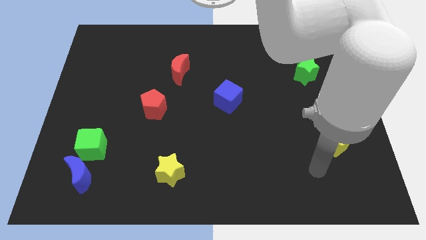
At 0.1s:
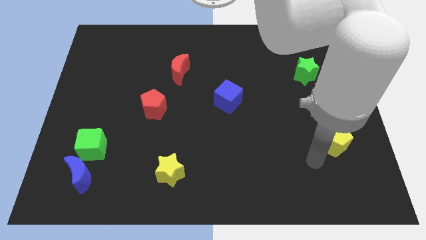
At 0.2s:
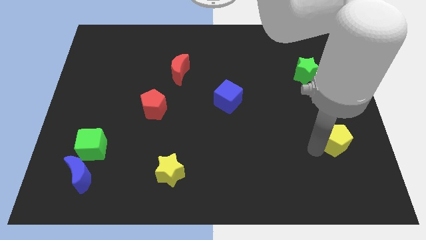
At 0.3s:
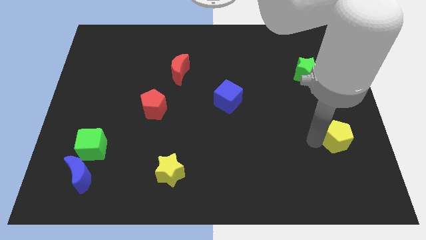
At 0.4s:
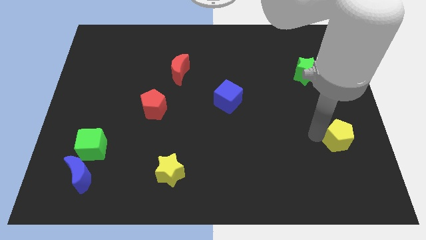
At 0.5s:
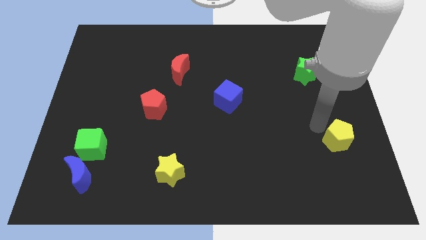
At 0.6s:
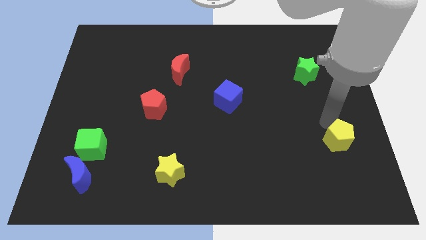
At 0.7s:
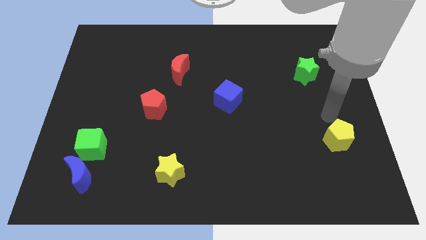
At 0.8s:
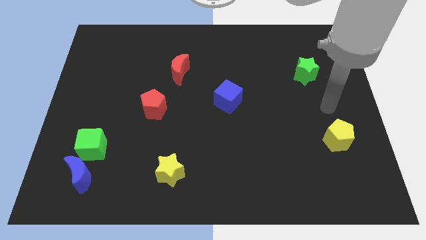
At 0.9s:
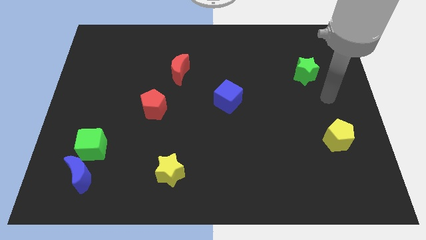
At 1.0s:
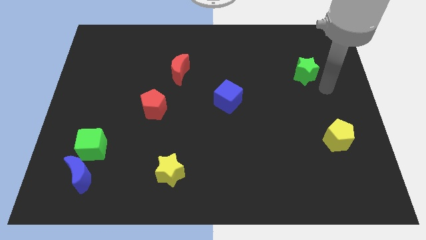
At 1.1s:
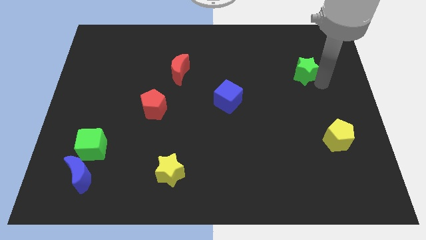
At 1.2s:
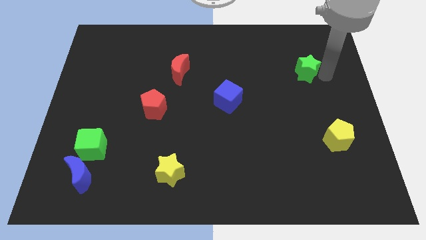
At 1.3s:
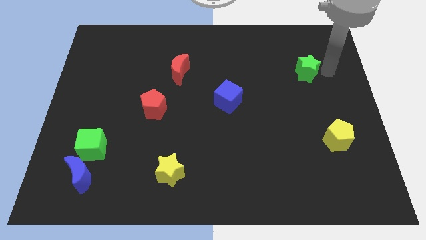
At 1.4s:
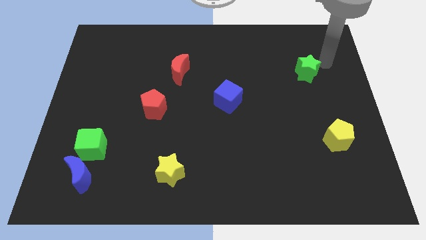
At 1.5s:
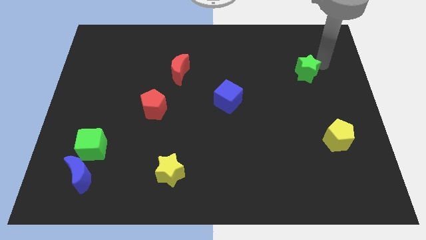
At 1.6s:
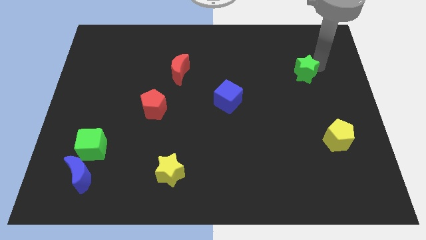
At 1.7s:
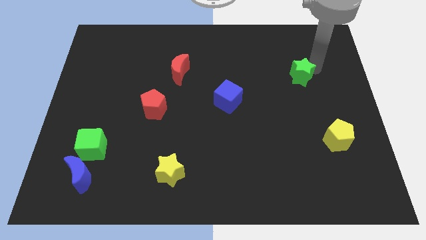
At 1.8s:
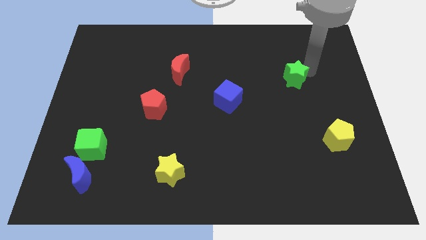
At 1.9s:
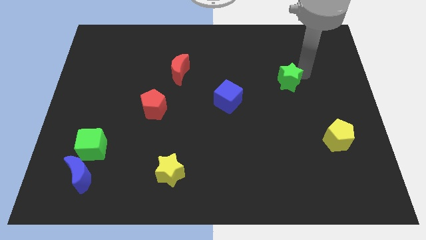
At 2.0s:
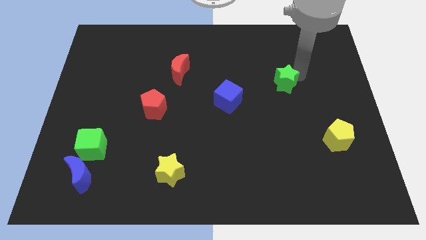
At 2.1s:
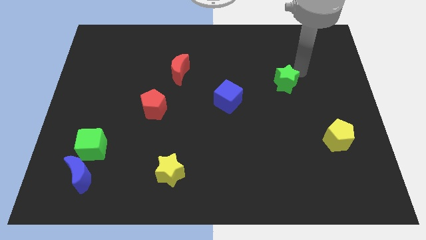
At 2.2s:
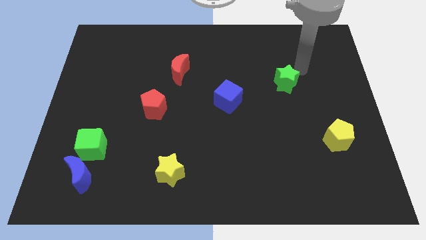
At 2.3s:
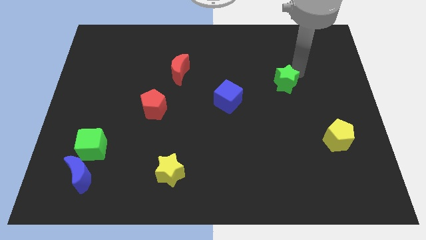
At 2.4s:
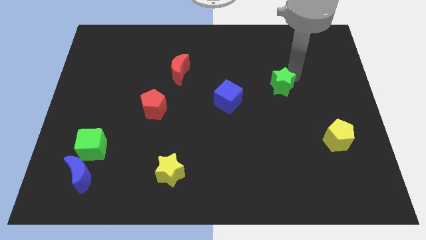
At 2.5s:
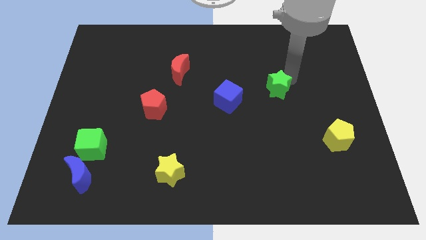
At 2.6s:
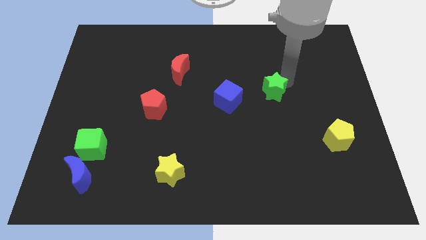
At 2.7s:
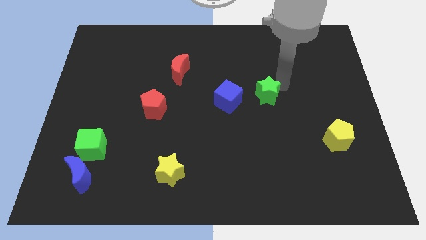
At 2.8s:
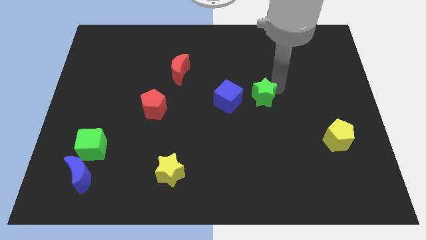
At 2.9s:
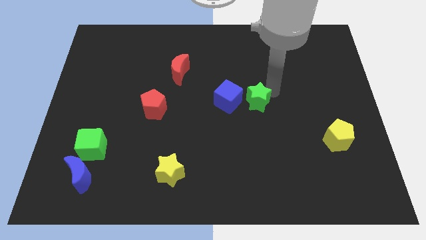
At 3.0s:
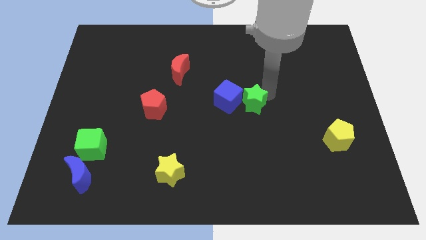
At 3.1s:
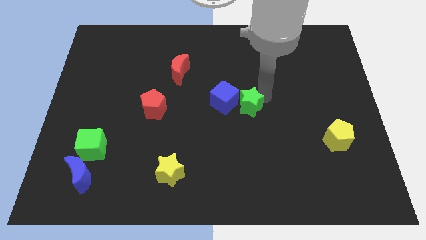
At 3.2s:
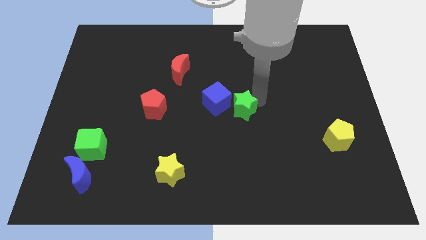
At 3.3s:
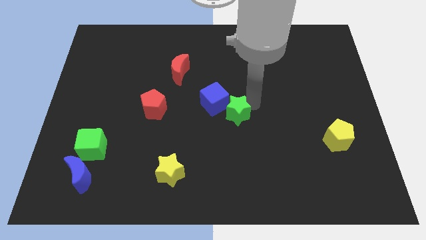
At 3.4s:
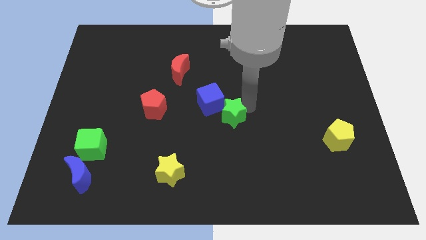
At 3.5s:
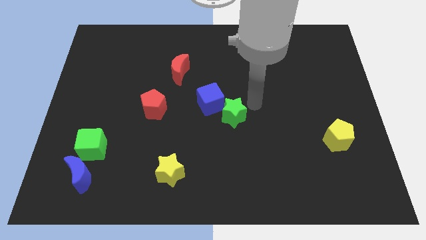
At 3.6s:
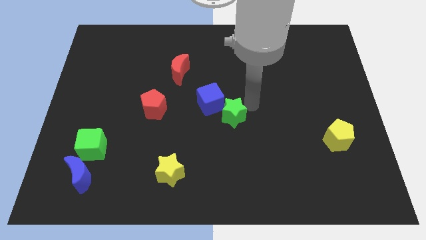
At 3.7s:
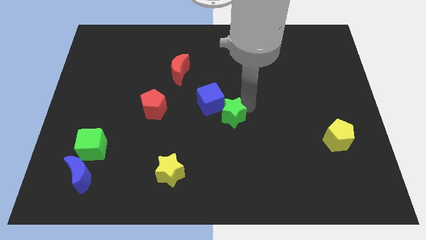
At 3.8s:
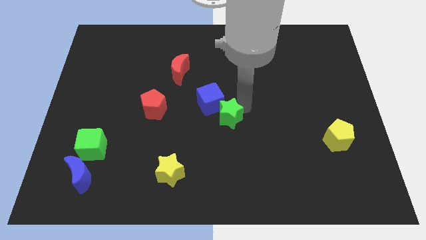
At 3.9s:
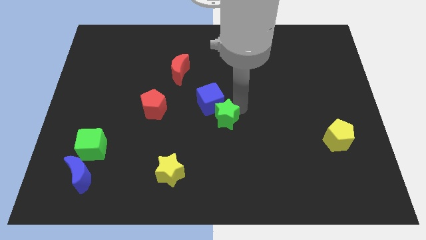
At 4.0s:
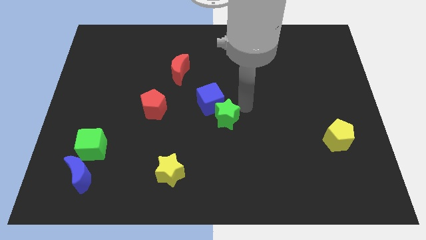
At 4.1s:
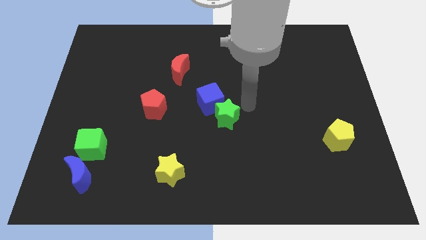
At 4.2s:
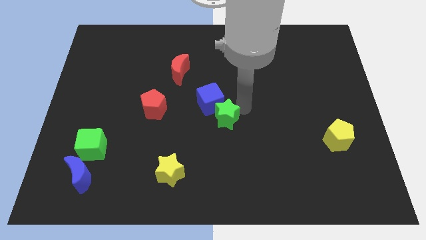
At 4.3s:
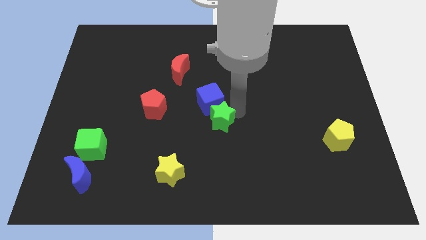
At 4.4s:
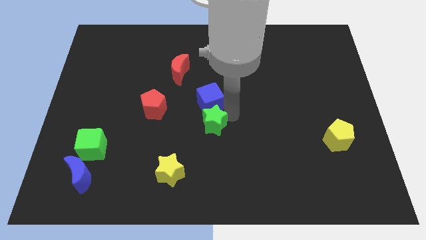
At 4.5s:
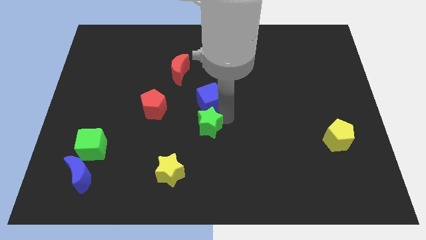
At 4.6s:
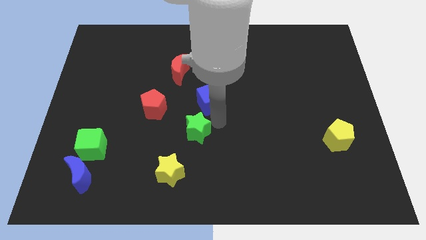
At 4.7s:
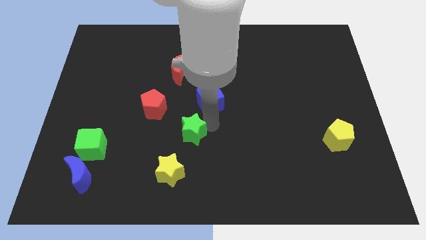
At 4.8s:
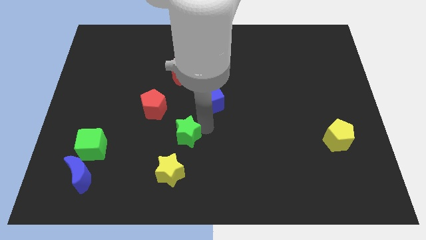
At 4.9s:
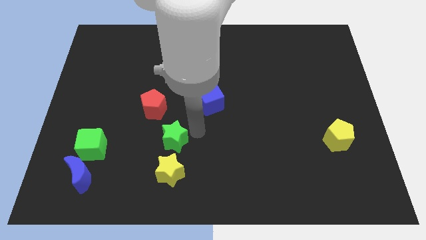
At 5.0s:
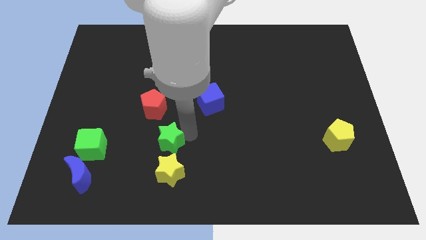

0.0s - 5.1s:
move the green star diagonally up and to the left of the yellow star

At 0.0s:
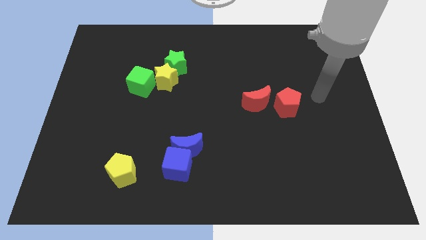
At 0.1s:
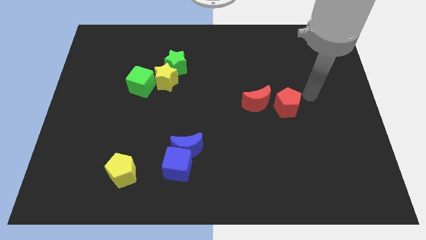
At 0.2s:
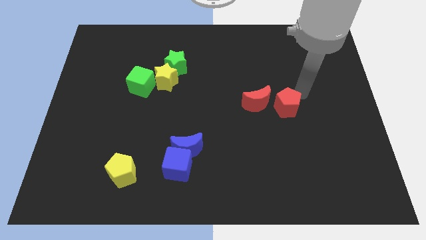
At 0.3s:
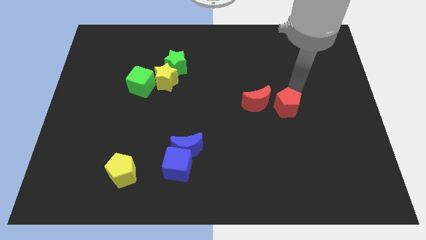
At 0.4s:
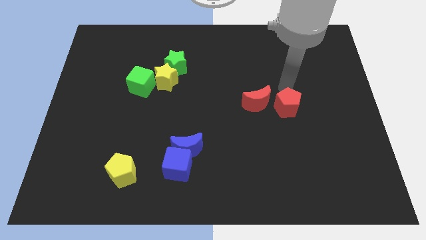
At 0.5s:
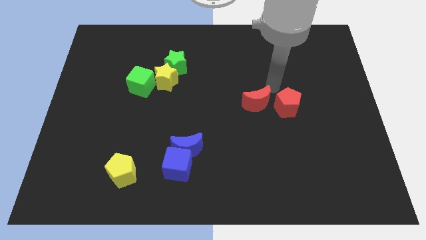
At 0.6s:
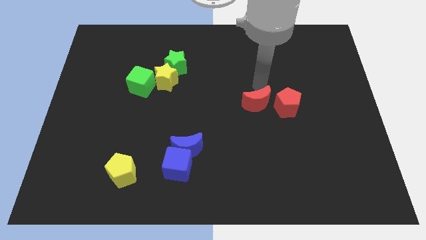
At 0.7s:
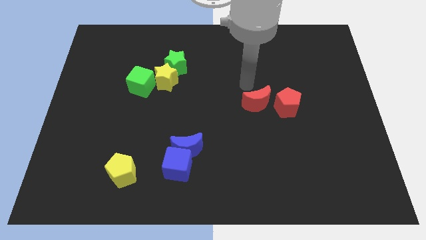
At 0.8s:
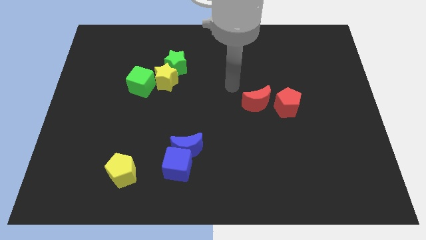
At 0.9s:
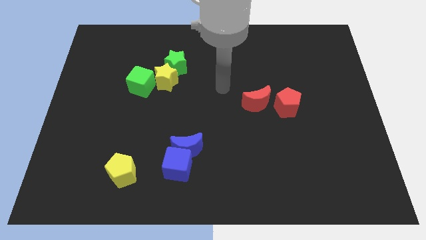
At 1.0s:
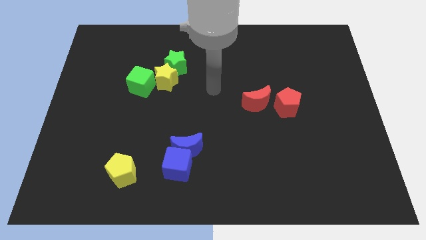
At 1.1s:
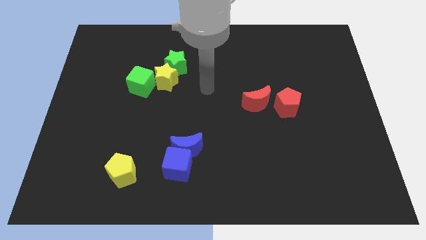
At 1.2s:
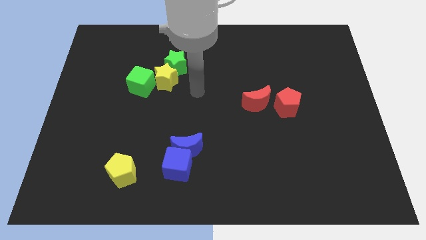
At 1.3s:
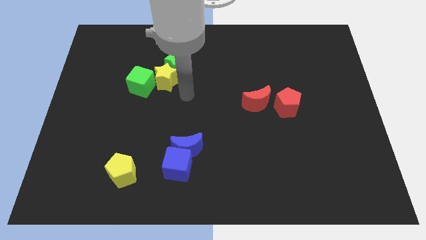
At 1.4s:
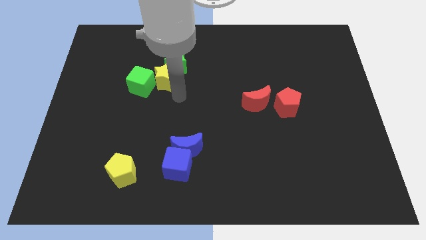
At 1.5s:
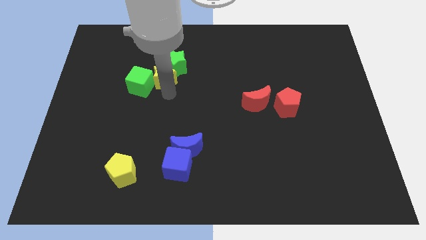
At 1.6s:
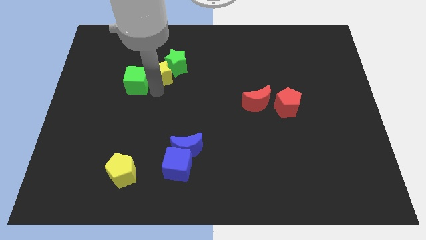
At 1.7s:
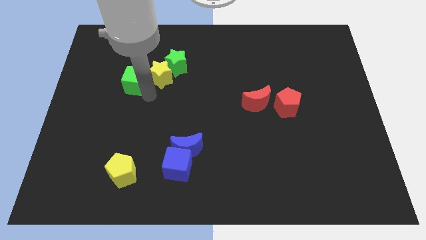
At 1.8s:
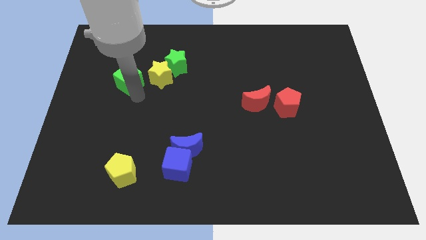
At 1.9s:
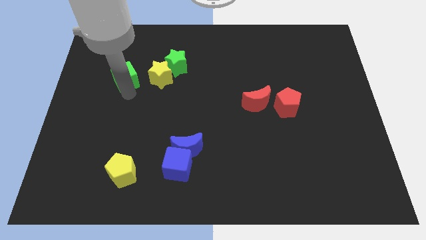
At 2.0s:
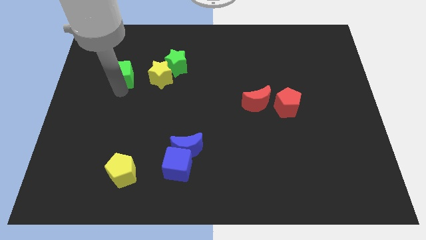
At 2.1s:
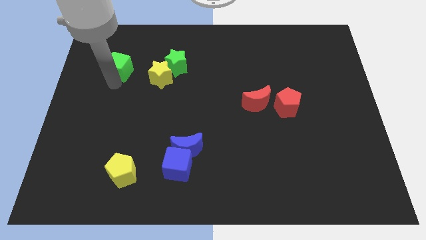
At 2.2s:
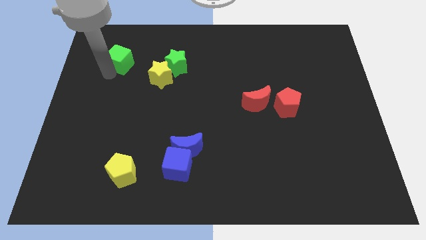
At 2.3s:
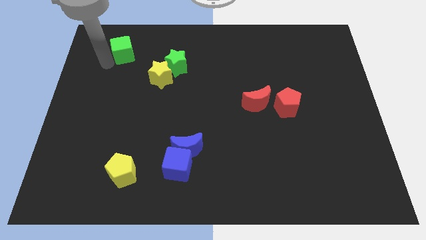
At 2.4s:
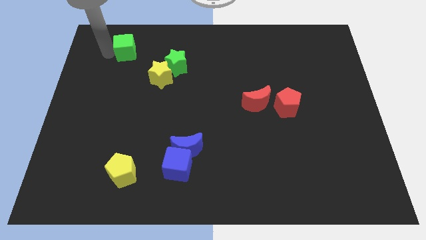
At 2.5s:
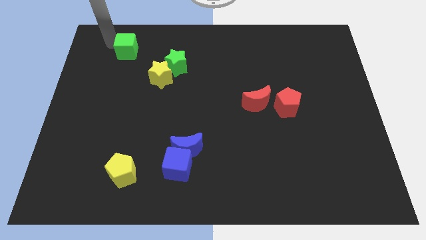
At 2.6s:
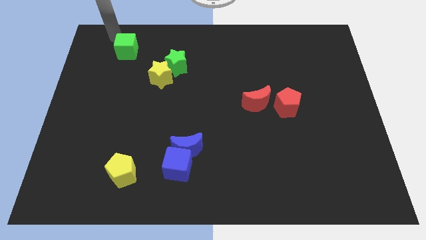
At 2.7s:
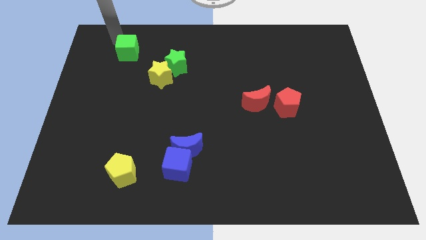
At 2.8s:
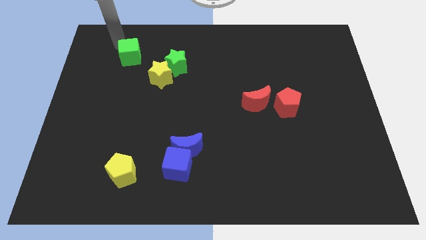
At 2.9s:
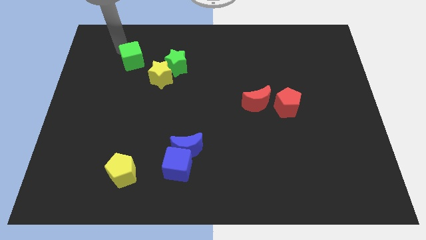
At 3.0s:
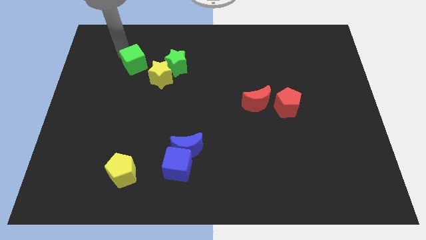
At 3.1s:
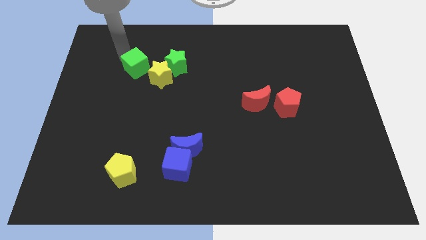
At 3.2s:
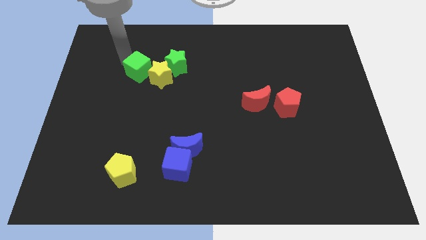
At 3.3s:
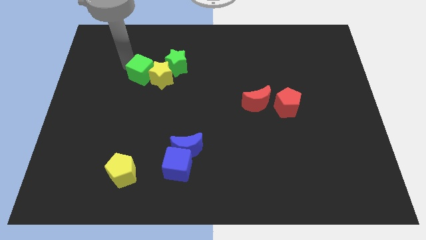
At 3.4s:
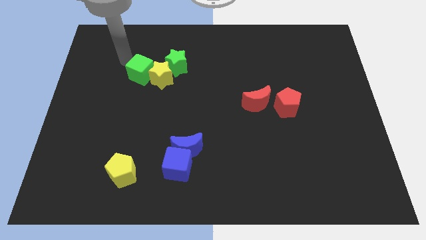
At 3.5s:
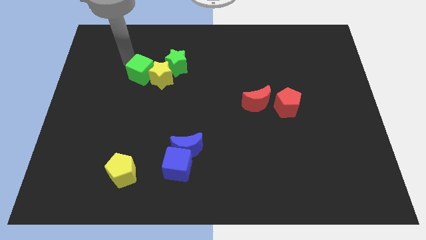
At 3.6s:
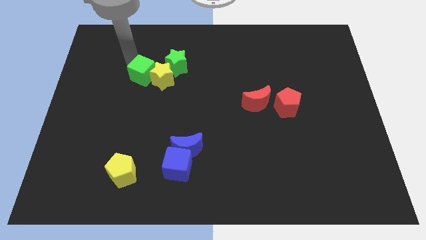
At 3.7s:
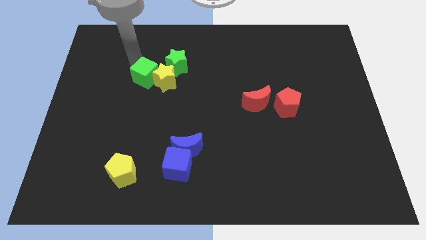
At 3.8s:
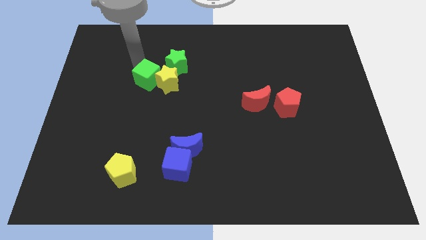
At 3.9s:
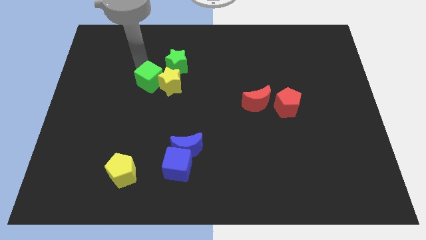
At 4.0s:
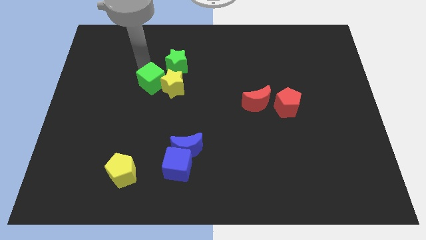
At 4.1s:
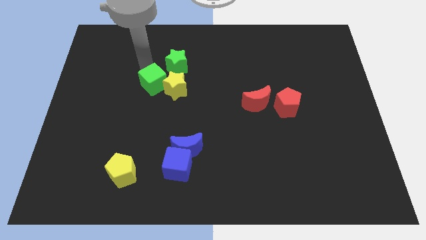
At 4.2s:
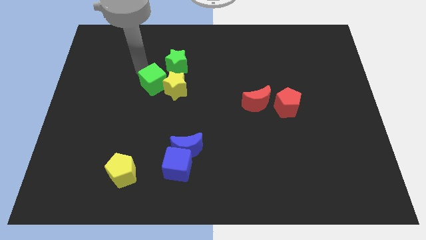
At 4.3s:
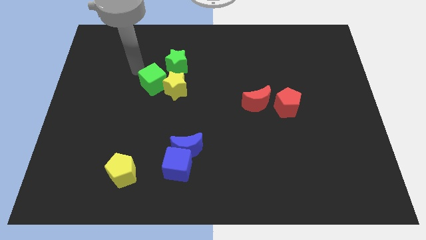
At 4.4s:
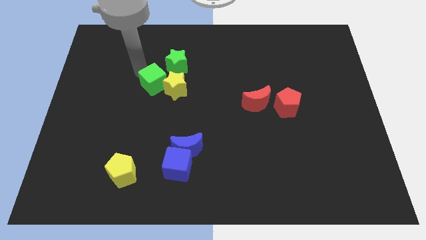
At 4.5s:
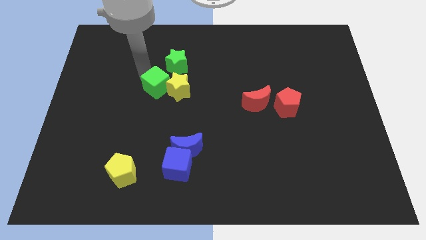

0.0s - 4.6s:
push the green cube to the bottom of the green star
